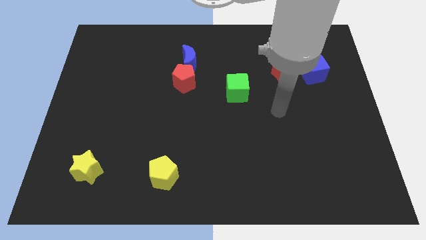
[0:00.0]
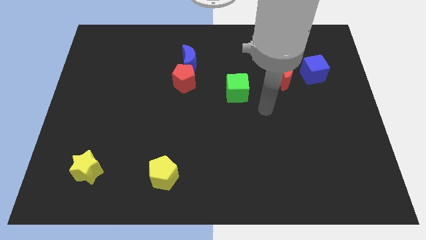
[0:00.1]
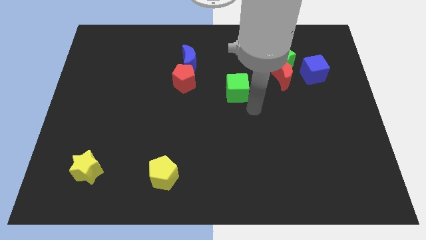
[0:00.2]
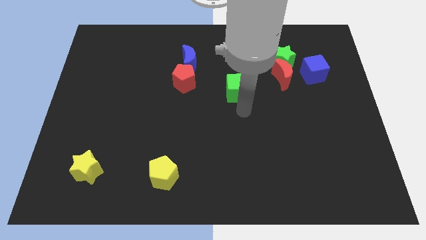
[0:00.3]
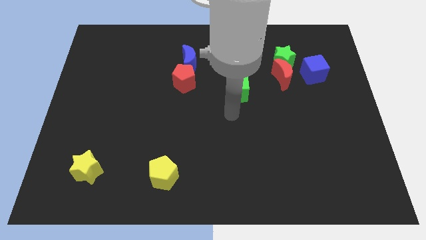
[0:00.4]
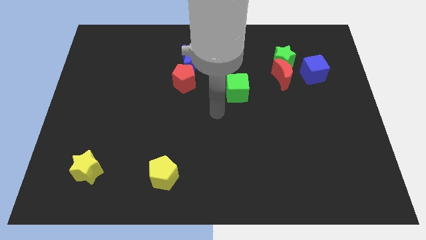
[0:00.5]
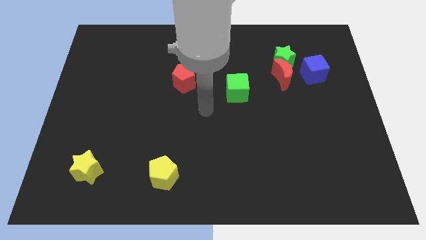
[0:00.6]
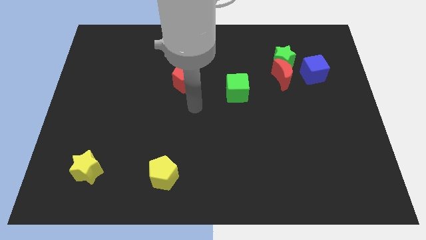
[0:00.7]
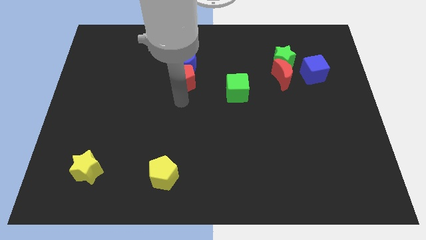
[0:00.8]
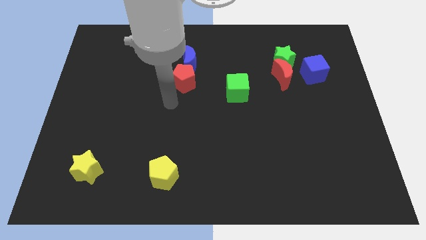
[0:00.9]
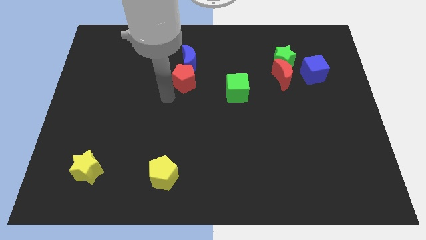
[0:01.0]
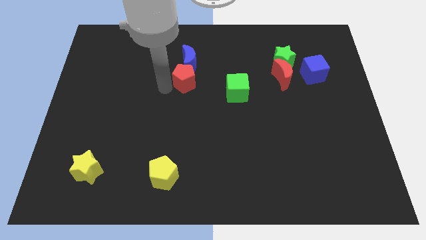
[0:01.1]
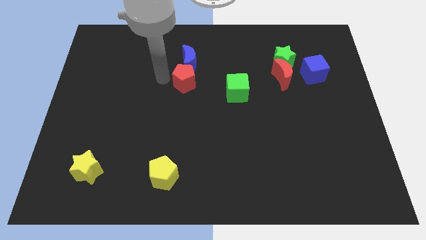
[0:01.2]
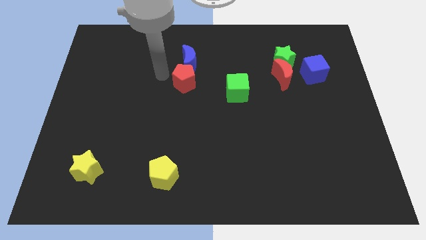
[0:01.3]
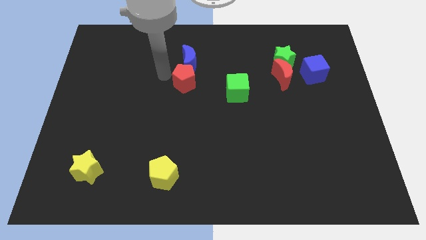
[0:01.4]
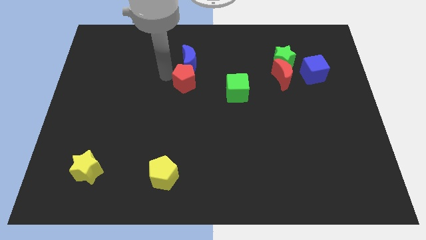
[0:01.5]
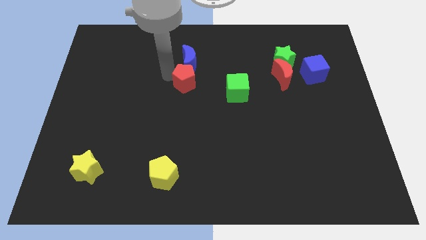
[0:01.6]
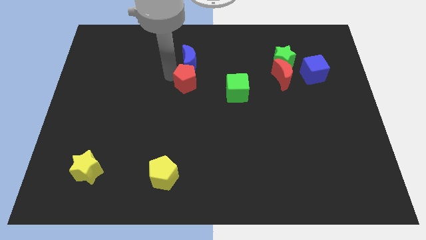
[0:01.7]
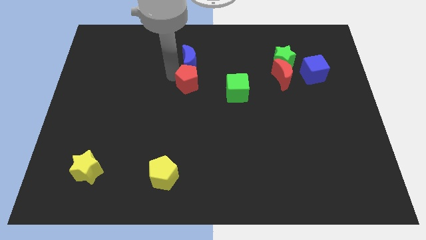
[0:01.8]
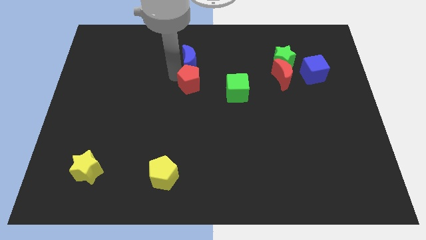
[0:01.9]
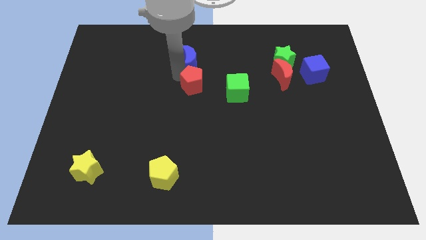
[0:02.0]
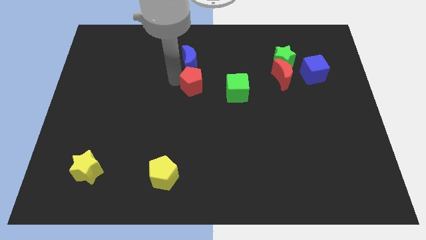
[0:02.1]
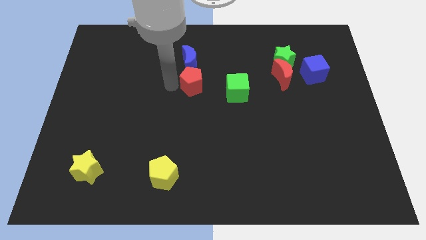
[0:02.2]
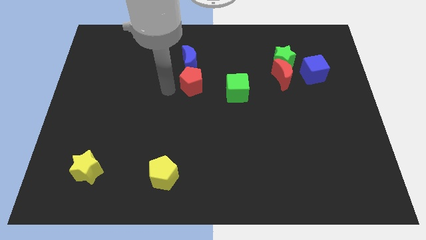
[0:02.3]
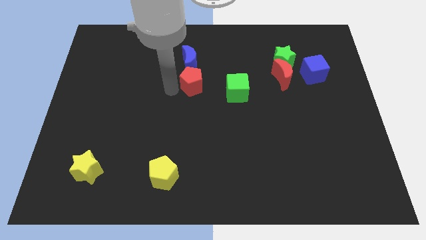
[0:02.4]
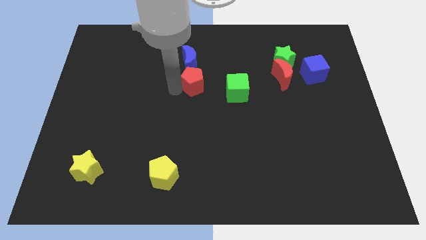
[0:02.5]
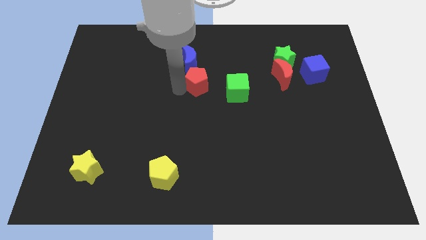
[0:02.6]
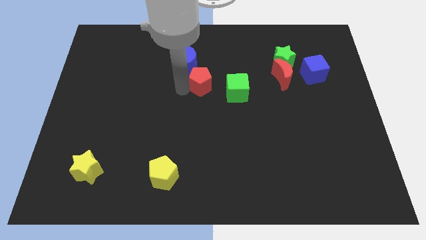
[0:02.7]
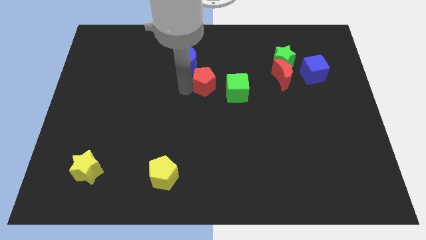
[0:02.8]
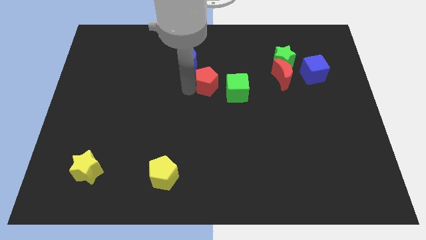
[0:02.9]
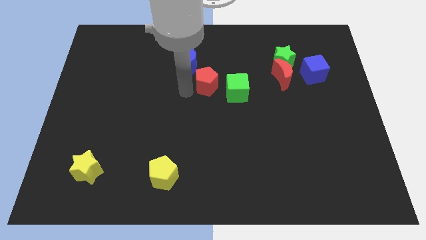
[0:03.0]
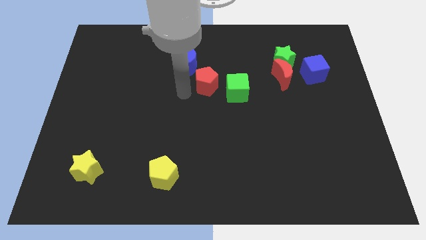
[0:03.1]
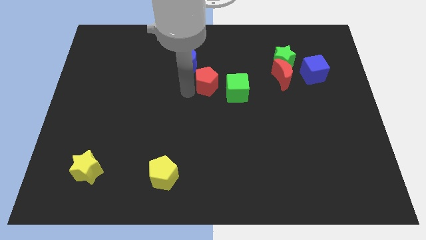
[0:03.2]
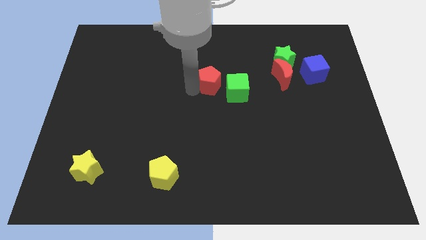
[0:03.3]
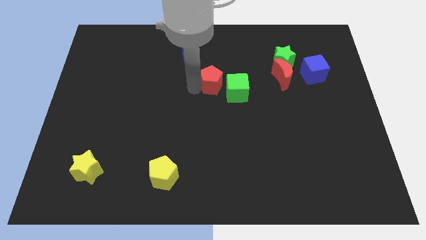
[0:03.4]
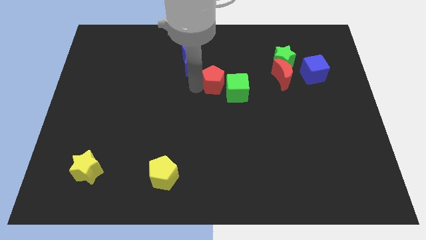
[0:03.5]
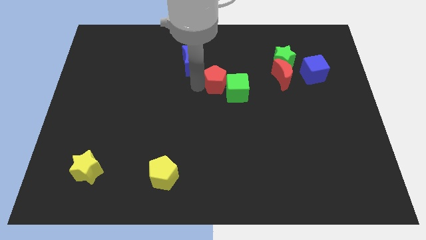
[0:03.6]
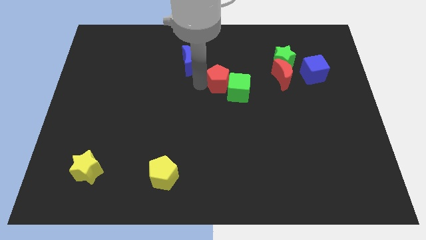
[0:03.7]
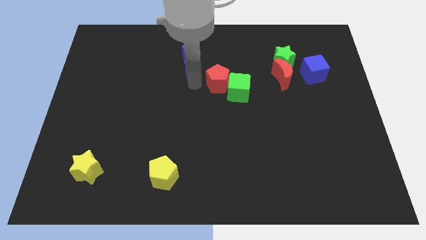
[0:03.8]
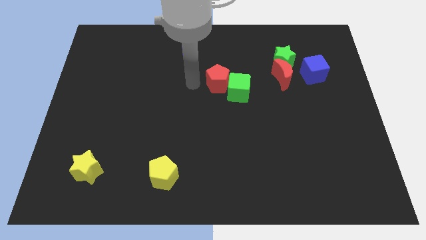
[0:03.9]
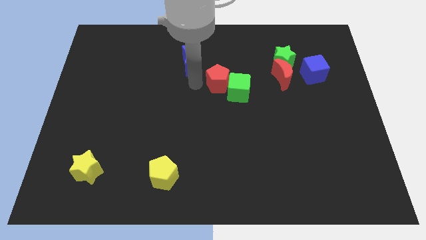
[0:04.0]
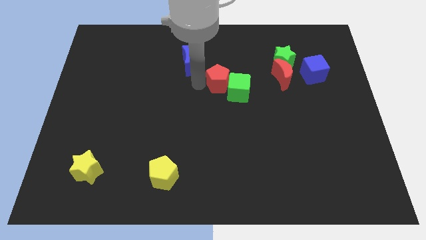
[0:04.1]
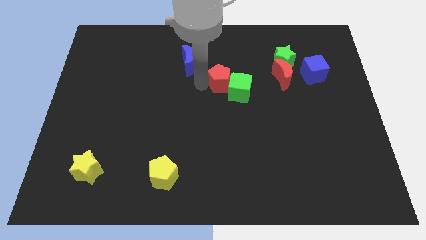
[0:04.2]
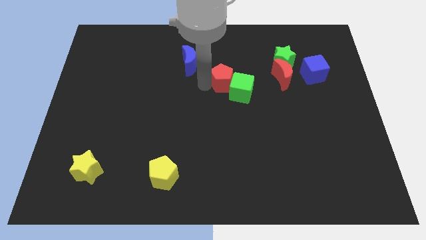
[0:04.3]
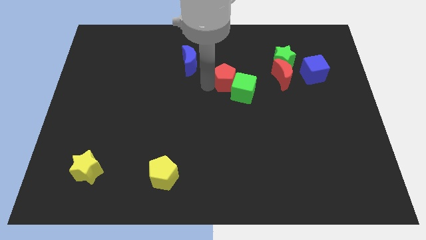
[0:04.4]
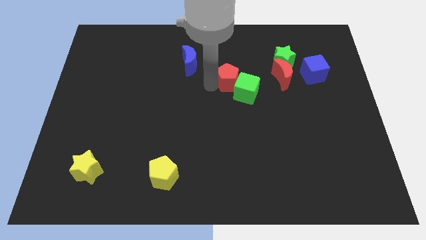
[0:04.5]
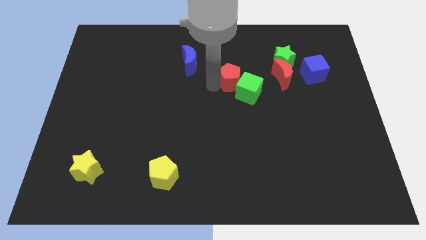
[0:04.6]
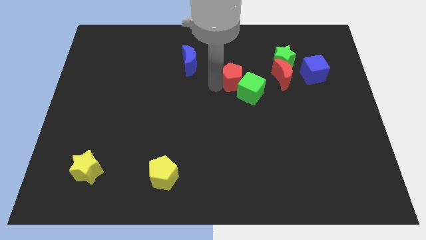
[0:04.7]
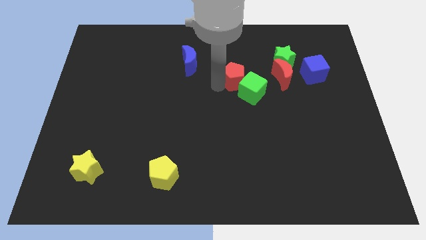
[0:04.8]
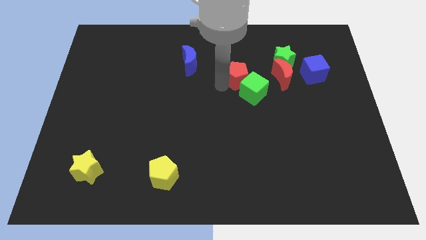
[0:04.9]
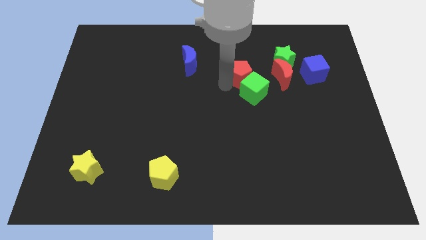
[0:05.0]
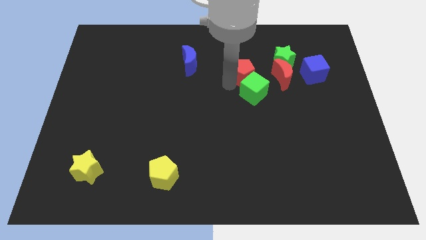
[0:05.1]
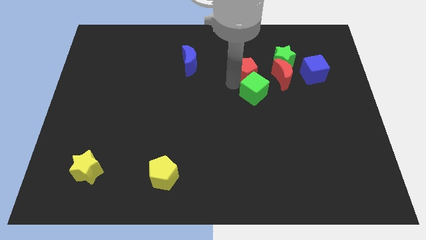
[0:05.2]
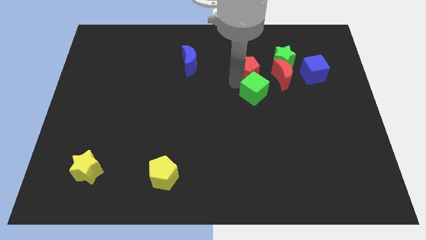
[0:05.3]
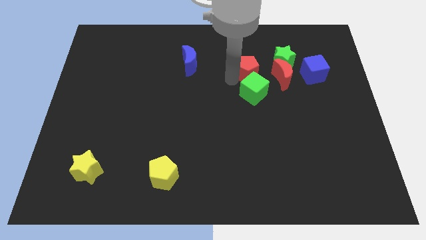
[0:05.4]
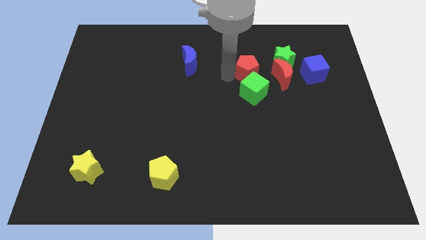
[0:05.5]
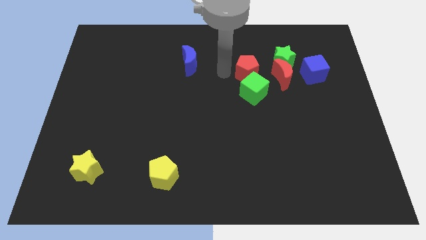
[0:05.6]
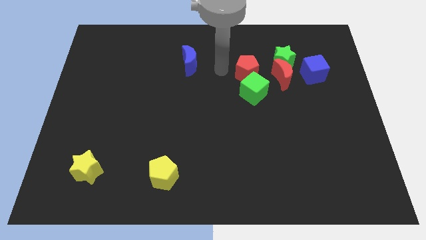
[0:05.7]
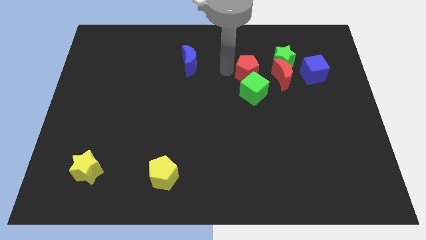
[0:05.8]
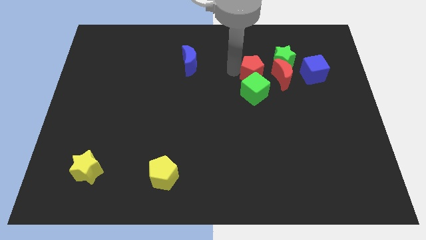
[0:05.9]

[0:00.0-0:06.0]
put the red pentagon left of the blue cube

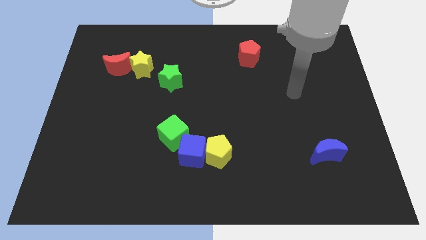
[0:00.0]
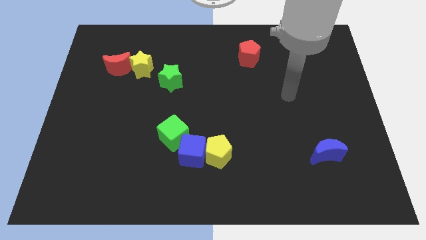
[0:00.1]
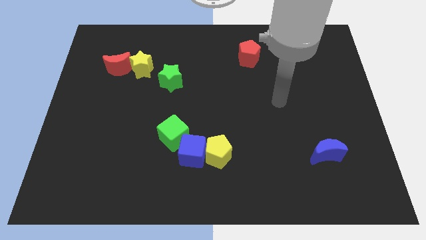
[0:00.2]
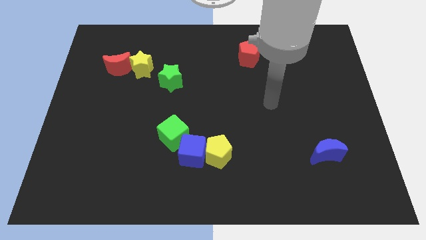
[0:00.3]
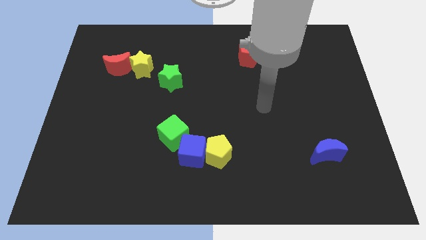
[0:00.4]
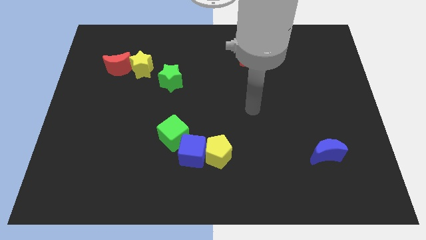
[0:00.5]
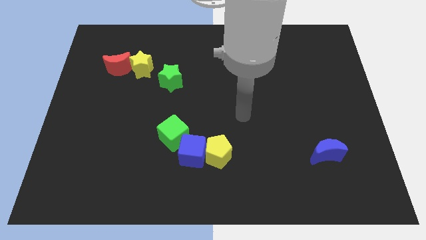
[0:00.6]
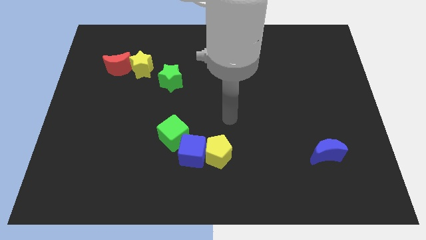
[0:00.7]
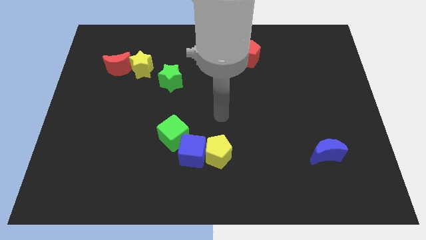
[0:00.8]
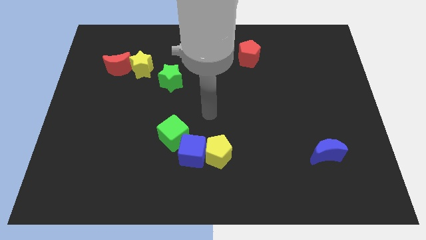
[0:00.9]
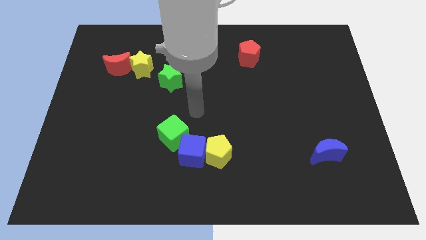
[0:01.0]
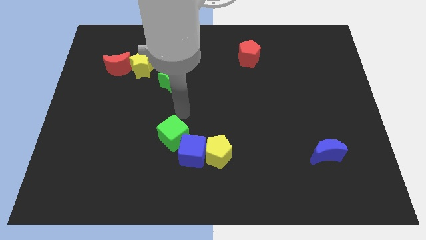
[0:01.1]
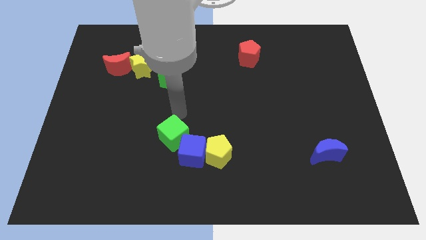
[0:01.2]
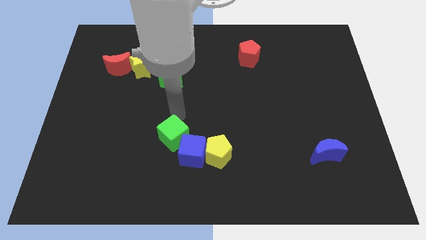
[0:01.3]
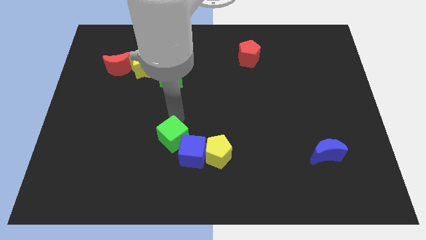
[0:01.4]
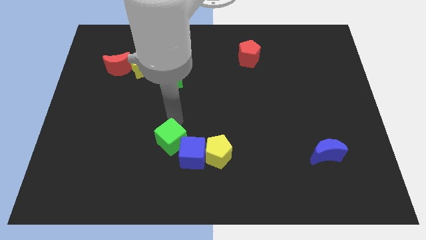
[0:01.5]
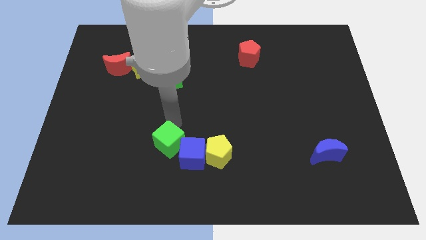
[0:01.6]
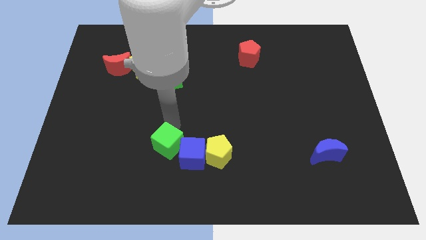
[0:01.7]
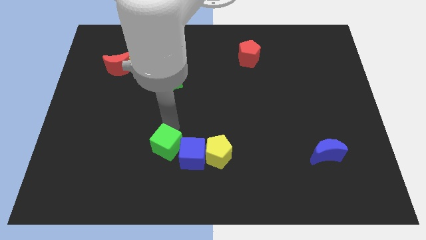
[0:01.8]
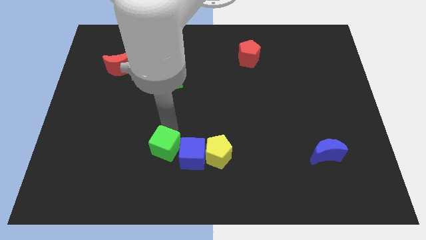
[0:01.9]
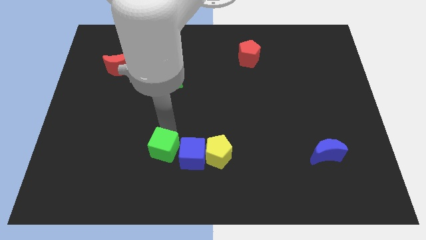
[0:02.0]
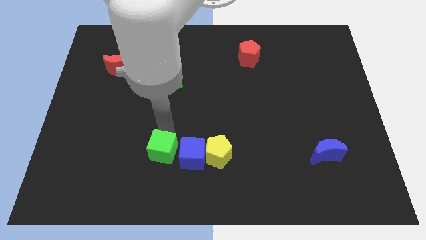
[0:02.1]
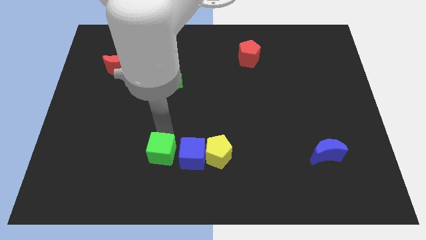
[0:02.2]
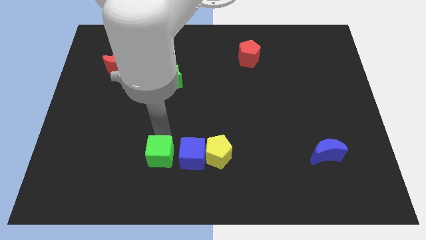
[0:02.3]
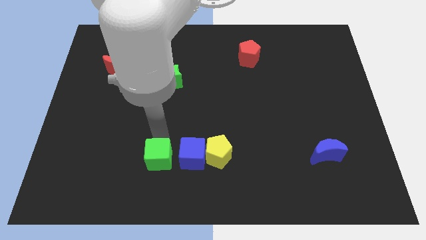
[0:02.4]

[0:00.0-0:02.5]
slide the green cube to the bottom left side of the blue cube
